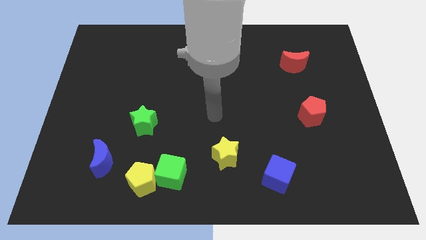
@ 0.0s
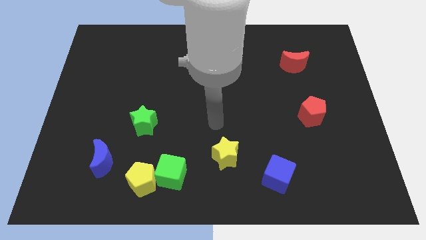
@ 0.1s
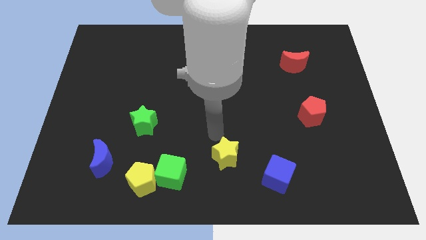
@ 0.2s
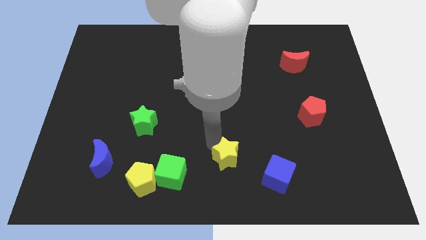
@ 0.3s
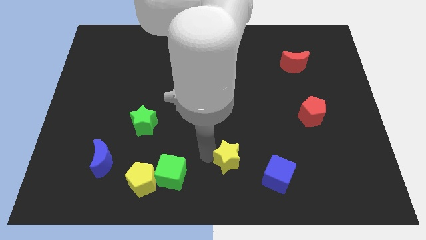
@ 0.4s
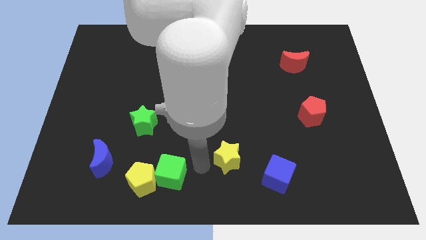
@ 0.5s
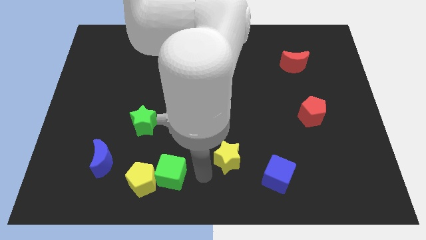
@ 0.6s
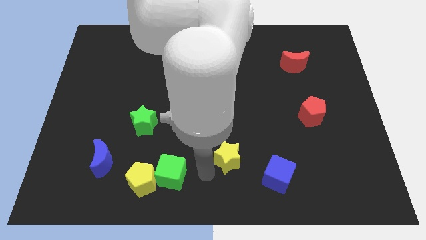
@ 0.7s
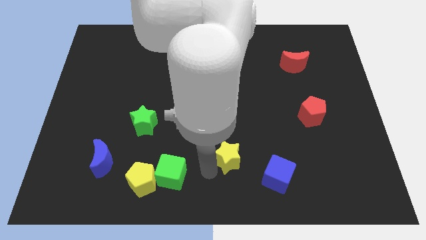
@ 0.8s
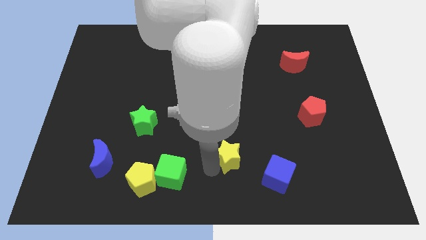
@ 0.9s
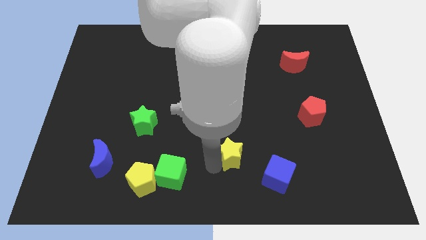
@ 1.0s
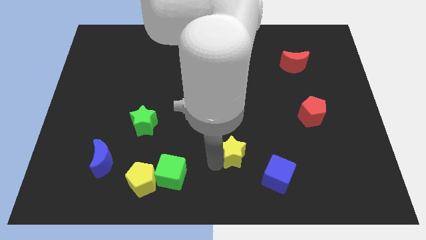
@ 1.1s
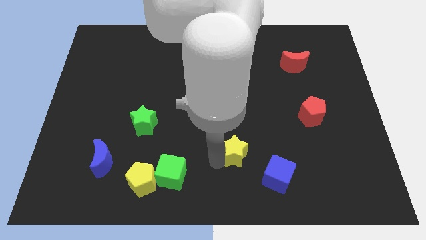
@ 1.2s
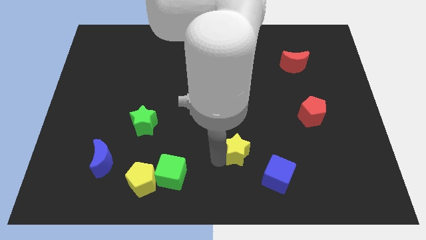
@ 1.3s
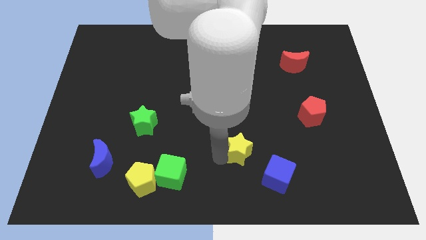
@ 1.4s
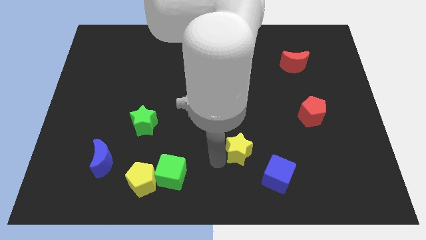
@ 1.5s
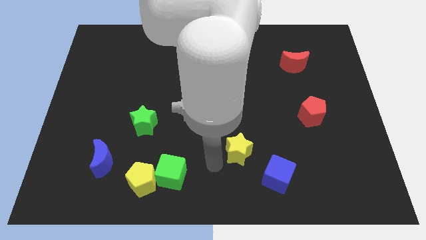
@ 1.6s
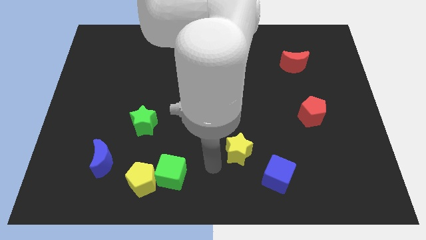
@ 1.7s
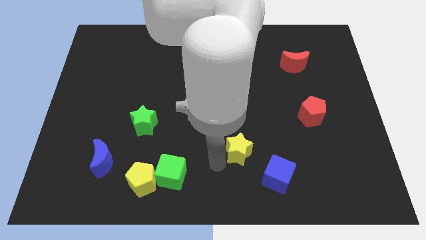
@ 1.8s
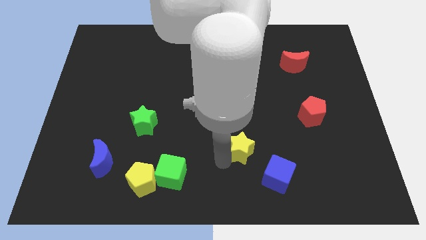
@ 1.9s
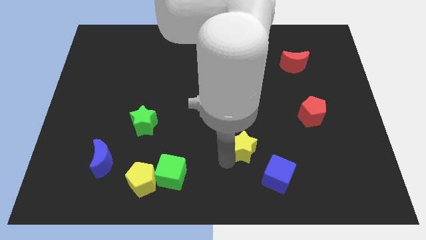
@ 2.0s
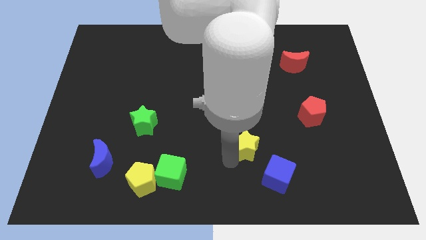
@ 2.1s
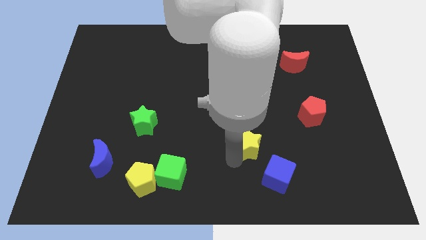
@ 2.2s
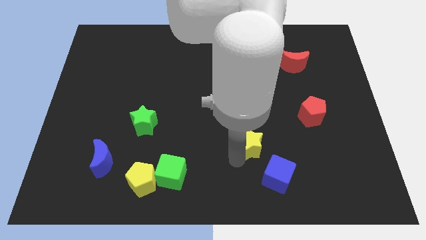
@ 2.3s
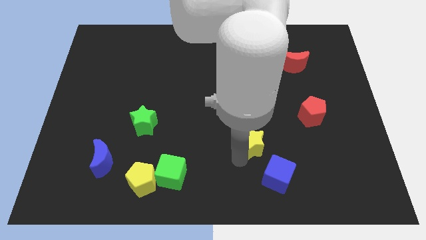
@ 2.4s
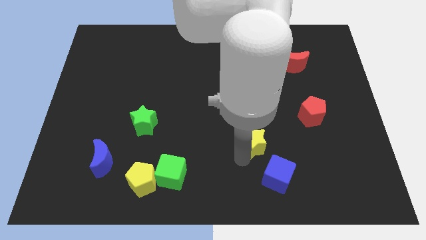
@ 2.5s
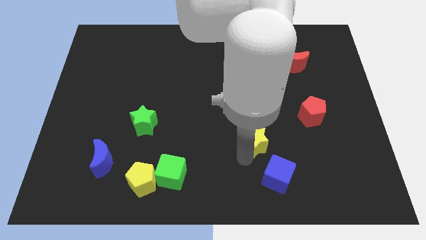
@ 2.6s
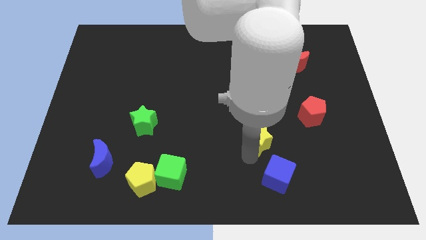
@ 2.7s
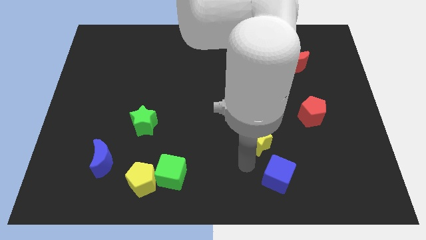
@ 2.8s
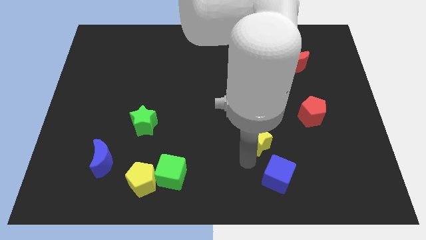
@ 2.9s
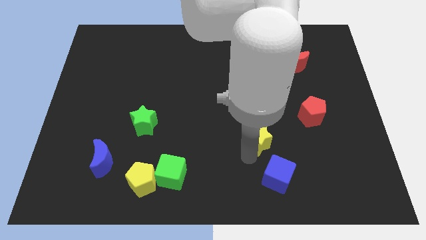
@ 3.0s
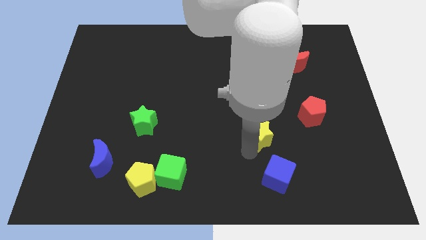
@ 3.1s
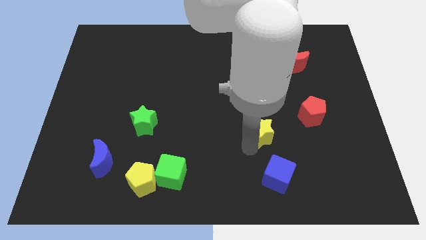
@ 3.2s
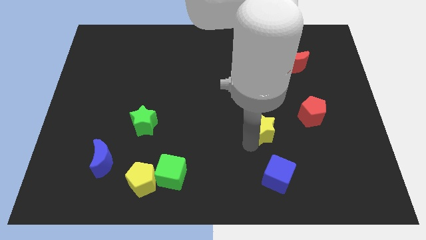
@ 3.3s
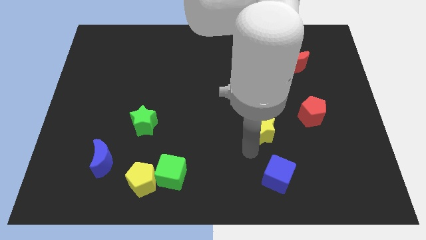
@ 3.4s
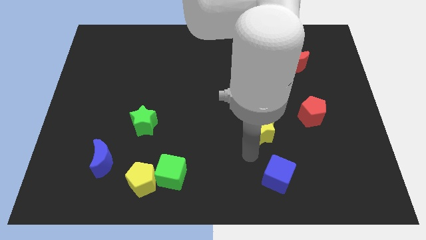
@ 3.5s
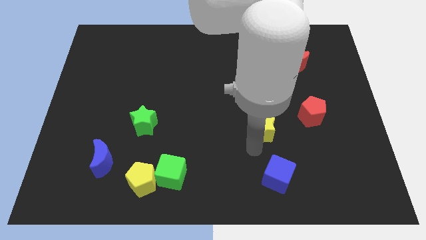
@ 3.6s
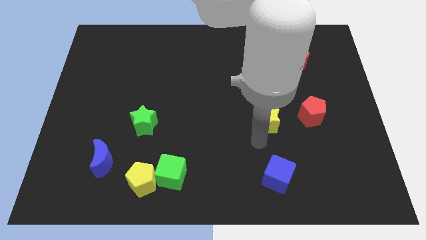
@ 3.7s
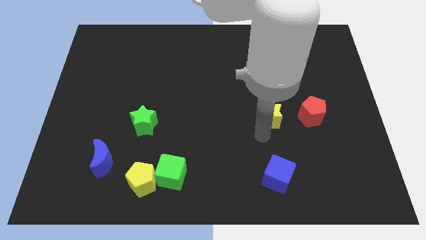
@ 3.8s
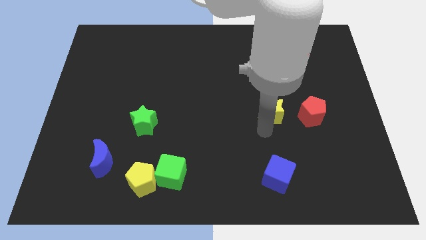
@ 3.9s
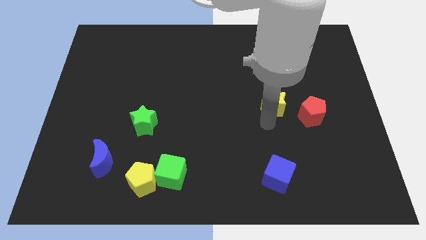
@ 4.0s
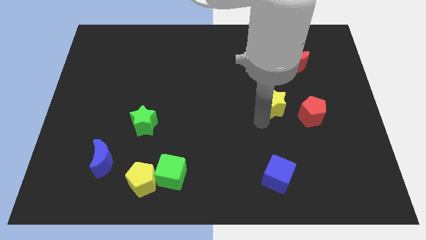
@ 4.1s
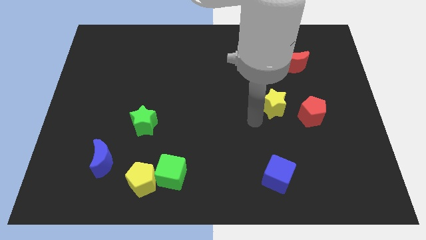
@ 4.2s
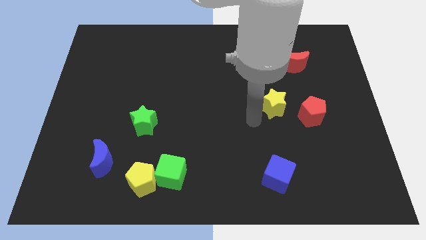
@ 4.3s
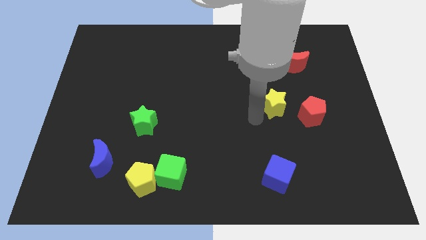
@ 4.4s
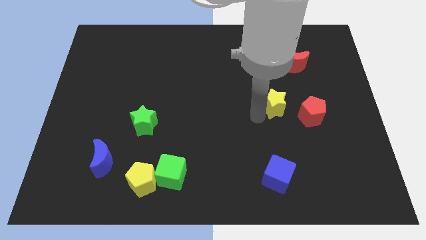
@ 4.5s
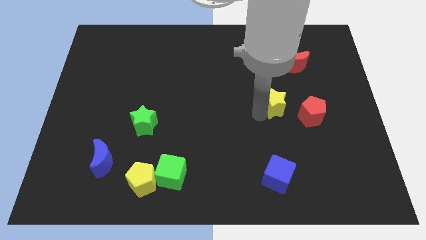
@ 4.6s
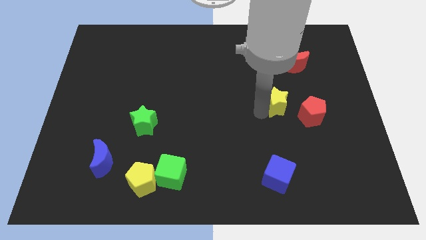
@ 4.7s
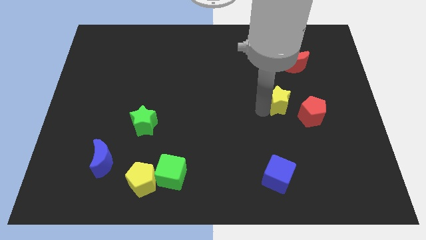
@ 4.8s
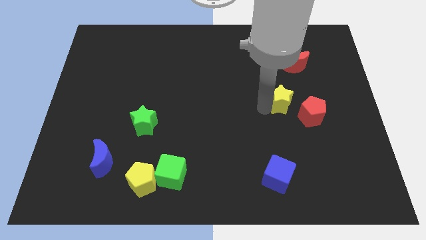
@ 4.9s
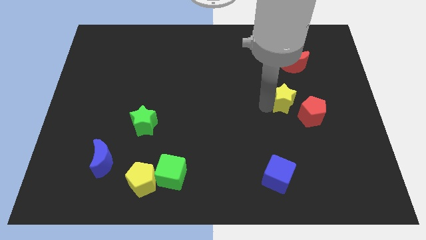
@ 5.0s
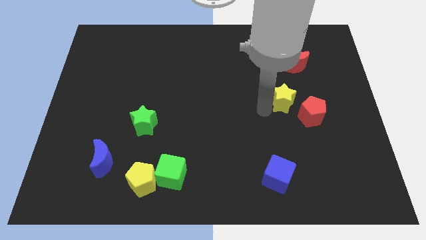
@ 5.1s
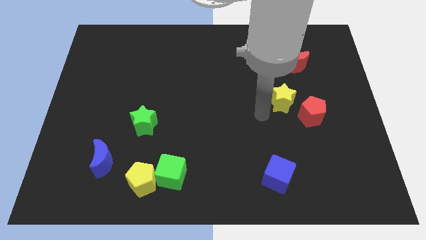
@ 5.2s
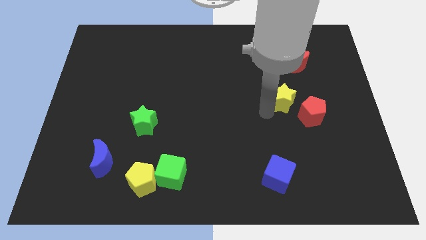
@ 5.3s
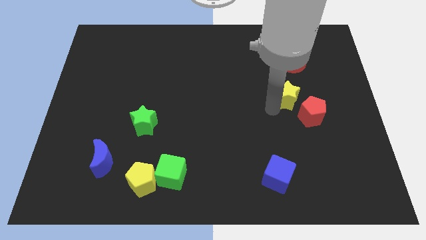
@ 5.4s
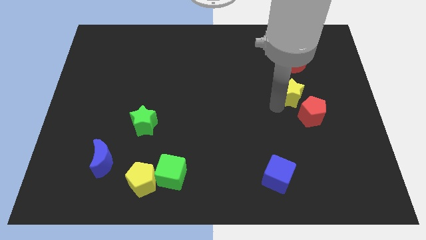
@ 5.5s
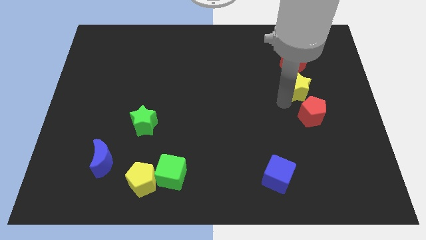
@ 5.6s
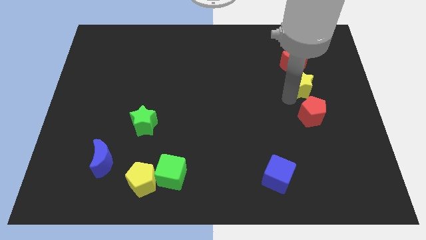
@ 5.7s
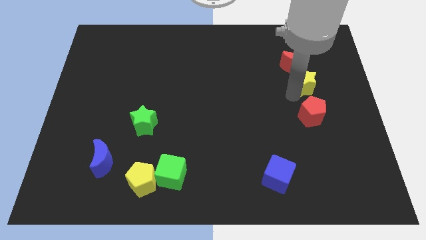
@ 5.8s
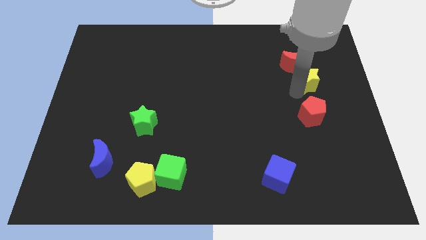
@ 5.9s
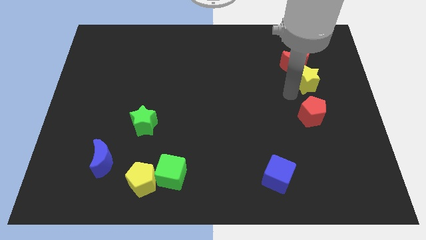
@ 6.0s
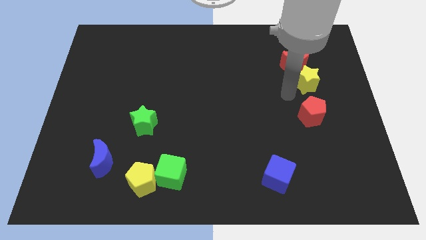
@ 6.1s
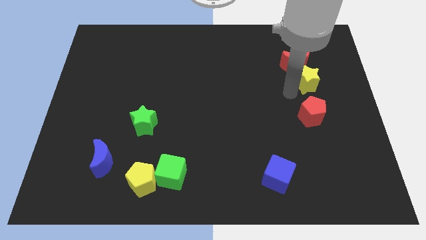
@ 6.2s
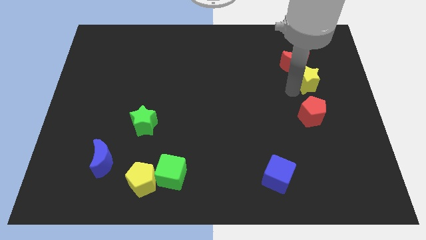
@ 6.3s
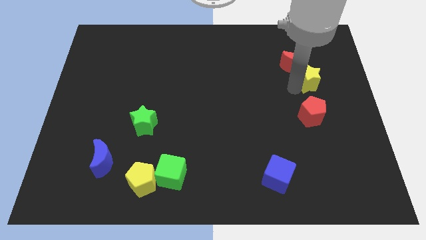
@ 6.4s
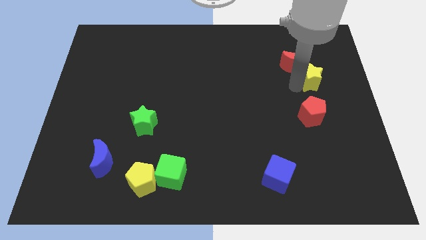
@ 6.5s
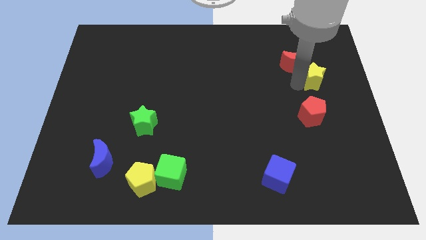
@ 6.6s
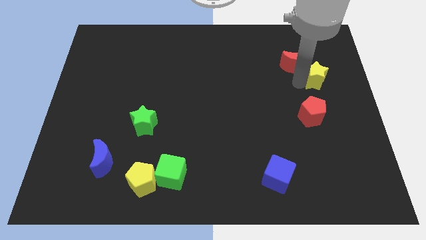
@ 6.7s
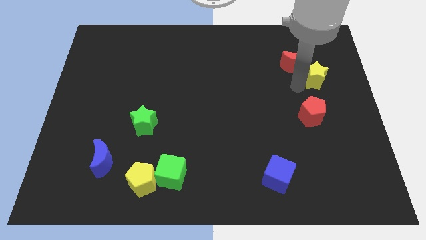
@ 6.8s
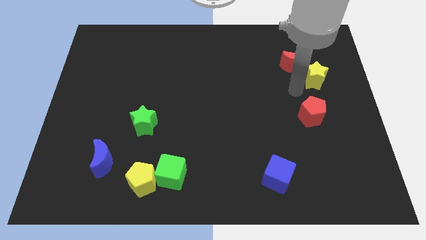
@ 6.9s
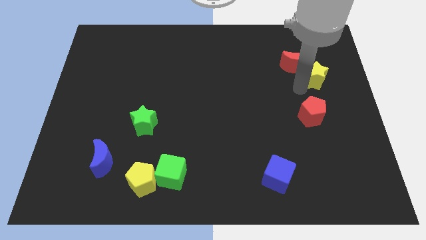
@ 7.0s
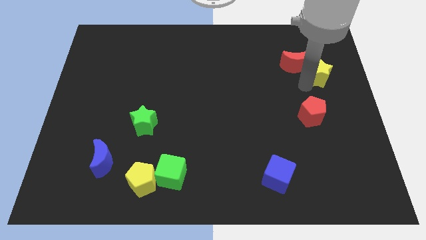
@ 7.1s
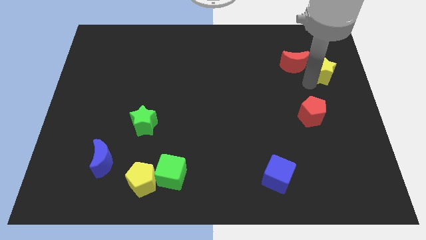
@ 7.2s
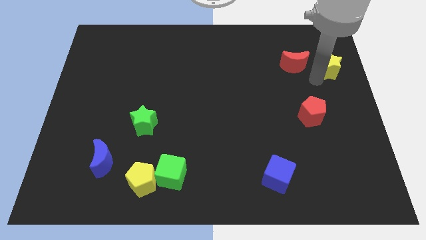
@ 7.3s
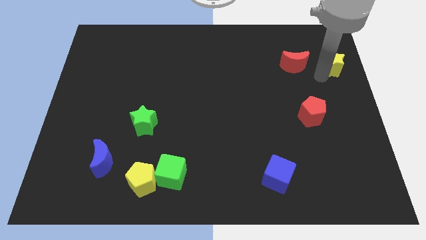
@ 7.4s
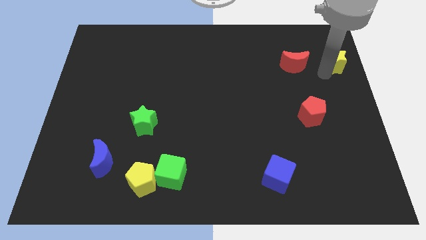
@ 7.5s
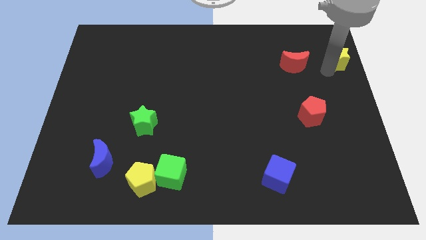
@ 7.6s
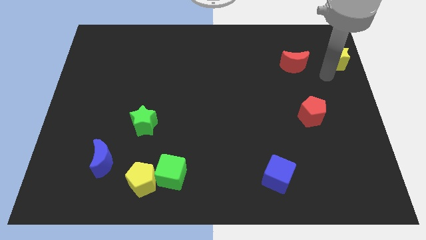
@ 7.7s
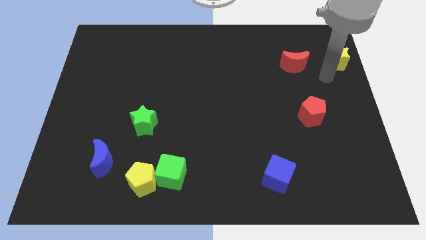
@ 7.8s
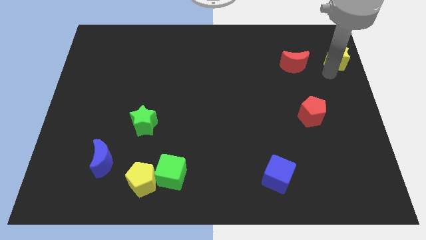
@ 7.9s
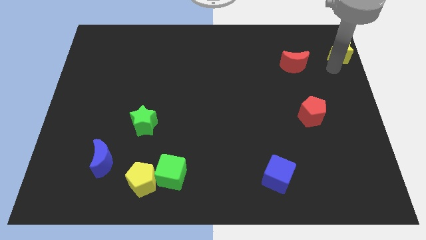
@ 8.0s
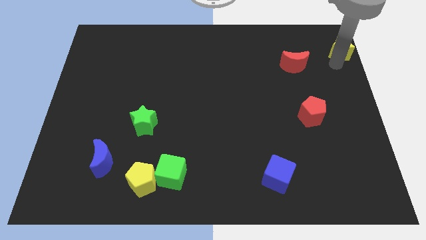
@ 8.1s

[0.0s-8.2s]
put the yellow star to the top right corner
